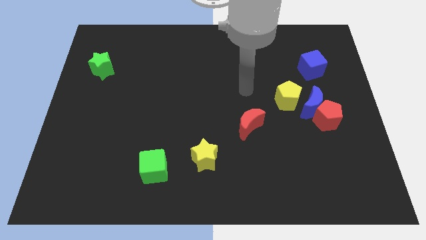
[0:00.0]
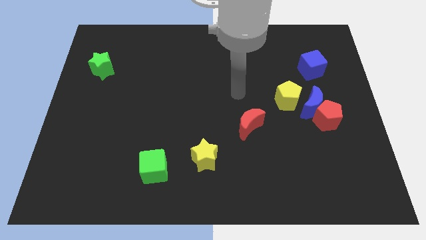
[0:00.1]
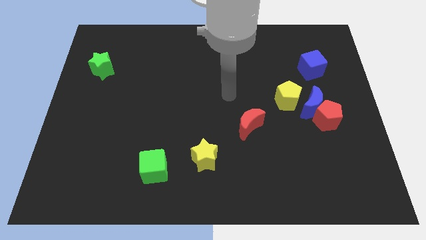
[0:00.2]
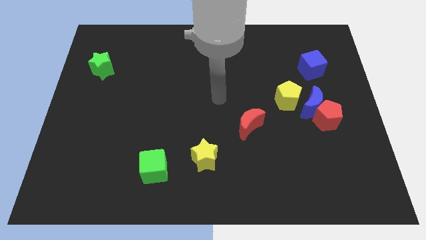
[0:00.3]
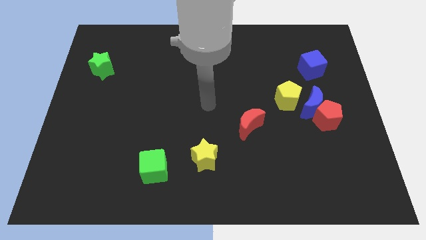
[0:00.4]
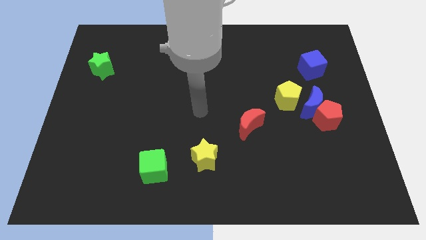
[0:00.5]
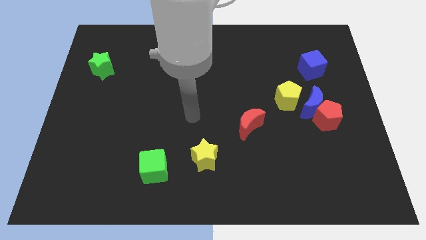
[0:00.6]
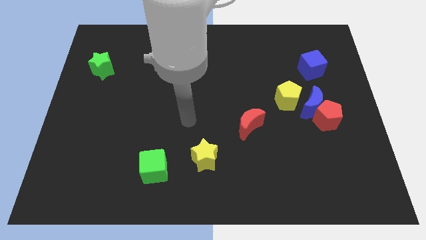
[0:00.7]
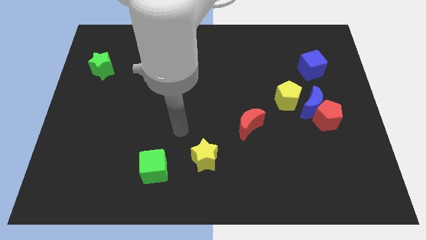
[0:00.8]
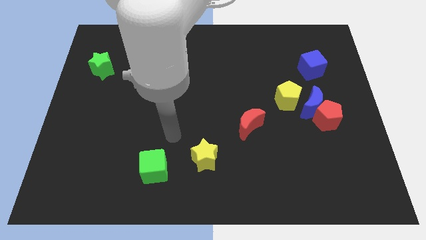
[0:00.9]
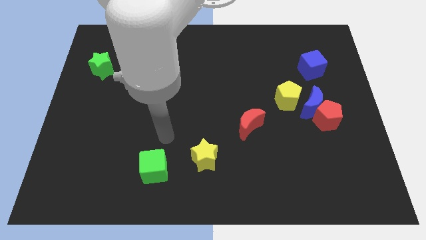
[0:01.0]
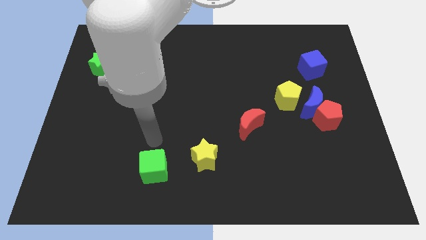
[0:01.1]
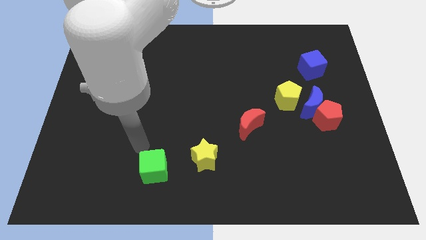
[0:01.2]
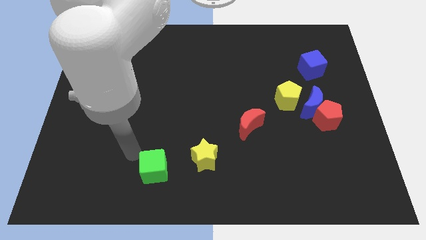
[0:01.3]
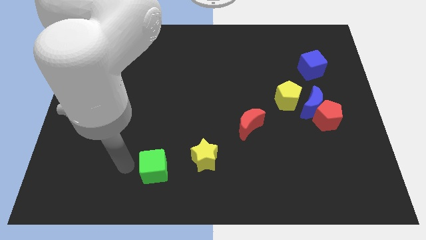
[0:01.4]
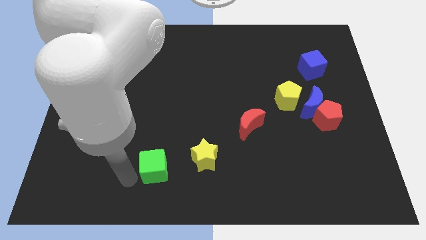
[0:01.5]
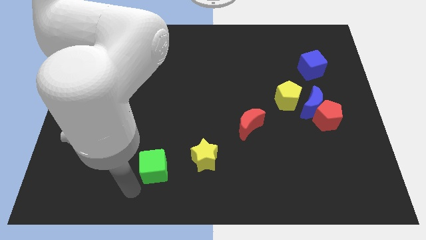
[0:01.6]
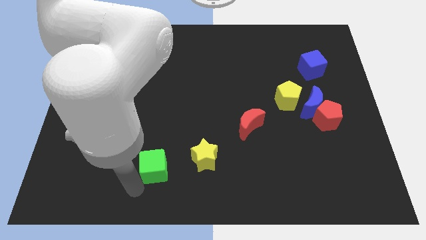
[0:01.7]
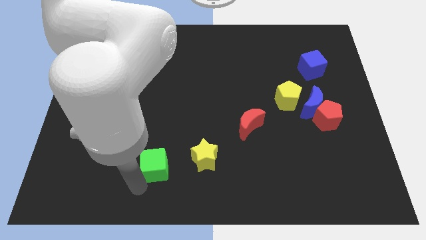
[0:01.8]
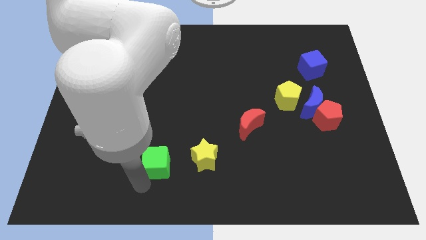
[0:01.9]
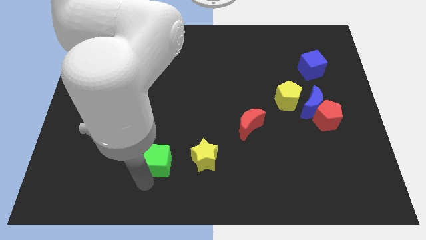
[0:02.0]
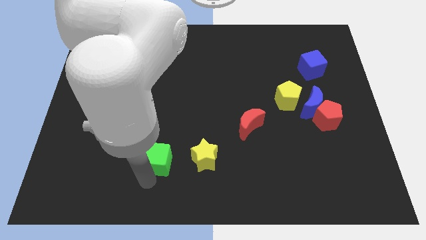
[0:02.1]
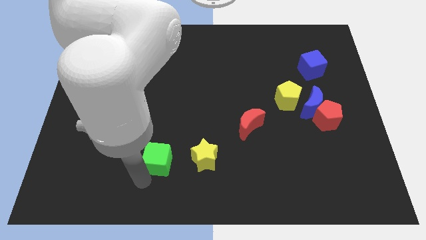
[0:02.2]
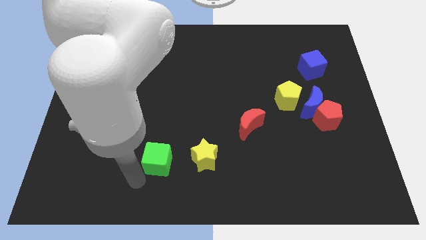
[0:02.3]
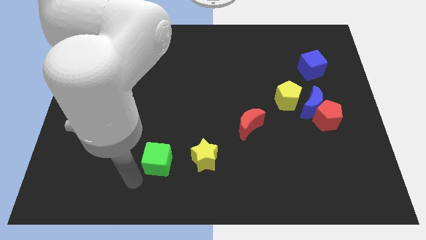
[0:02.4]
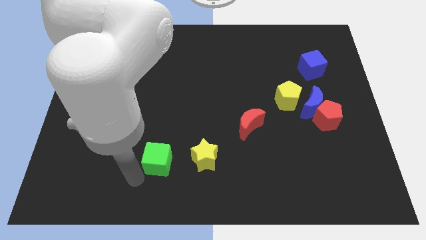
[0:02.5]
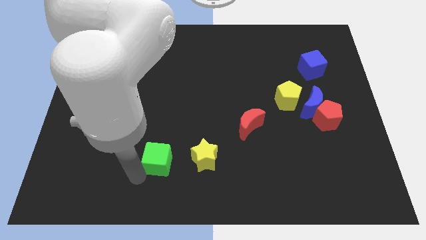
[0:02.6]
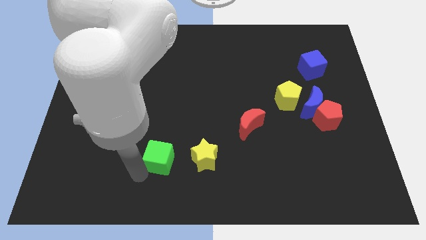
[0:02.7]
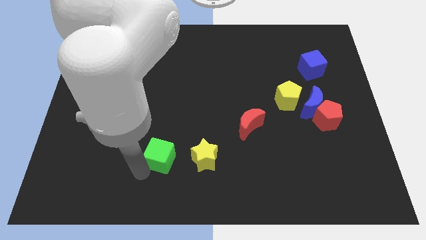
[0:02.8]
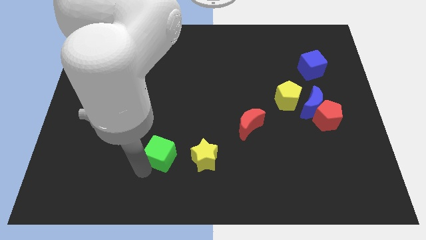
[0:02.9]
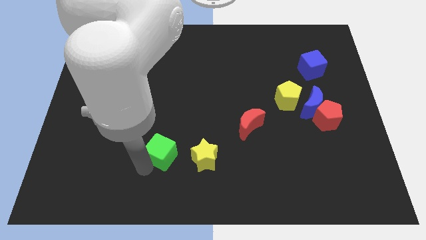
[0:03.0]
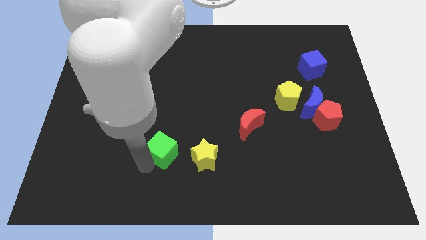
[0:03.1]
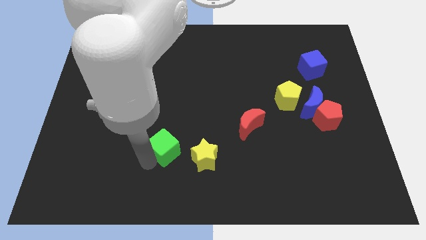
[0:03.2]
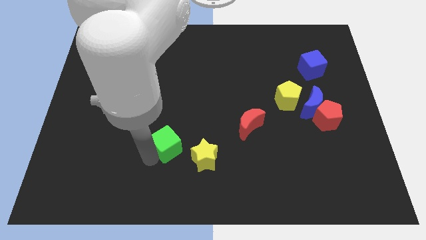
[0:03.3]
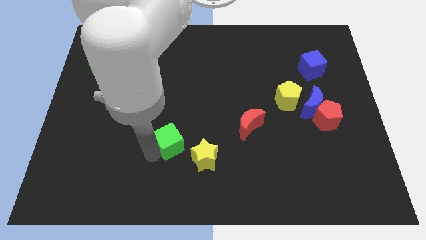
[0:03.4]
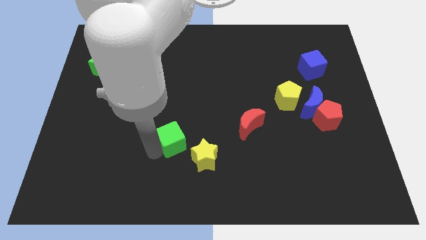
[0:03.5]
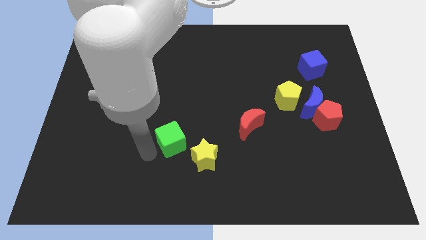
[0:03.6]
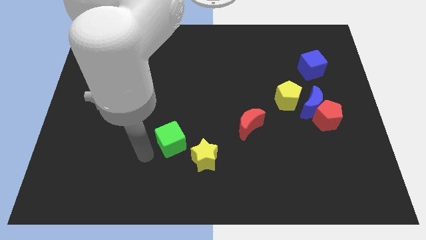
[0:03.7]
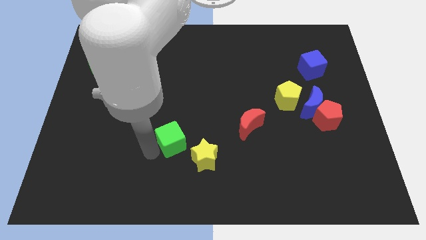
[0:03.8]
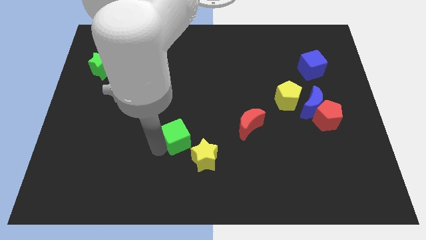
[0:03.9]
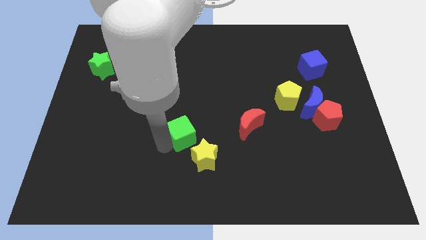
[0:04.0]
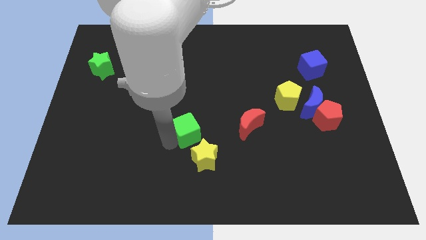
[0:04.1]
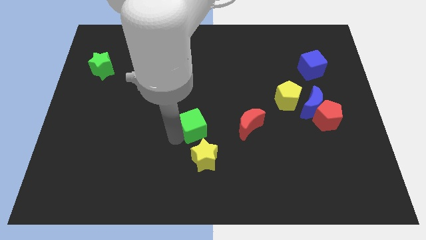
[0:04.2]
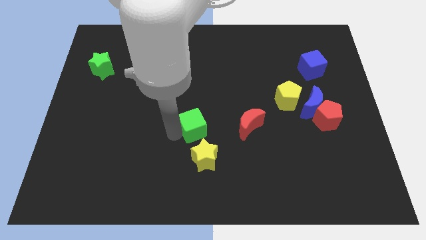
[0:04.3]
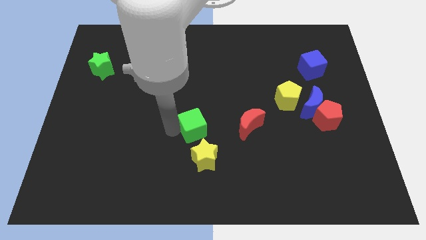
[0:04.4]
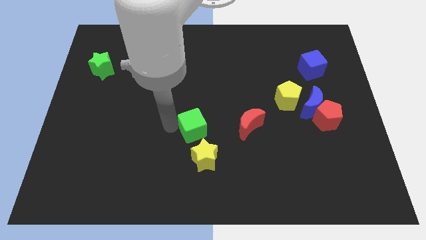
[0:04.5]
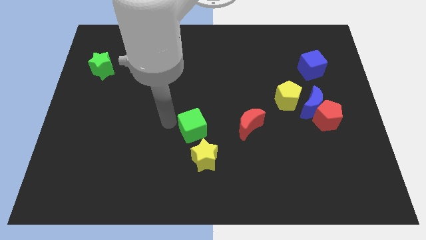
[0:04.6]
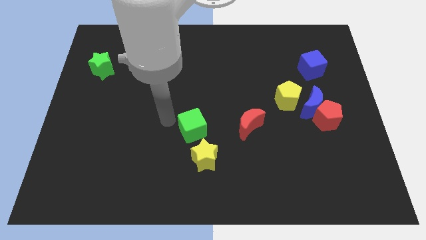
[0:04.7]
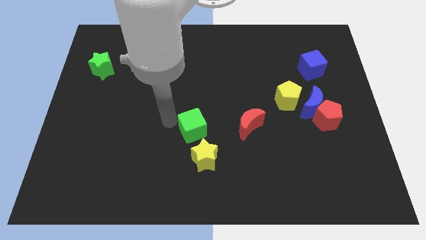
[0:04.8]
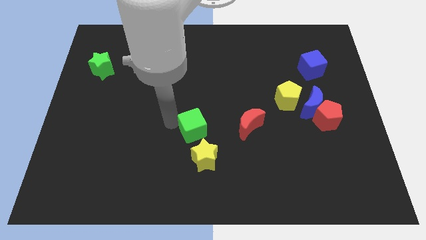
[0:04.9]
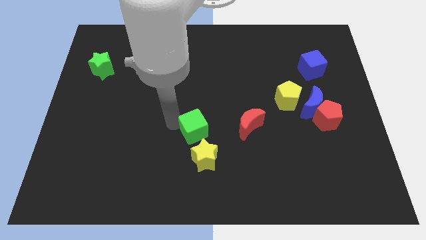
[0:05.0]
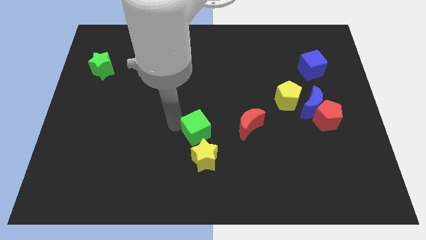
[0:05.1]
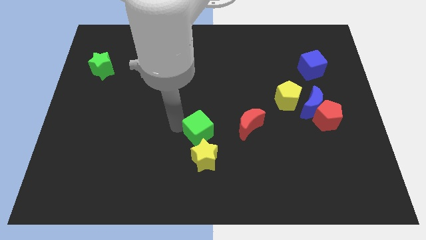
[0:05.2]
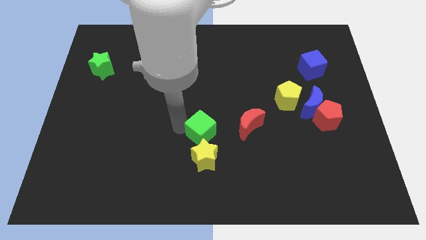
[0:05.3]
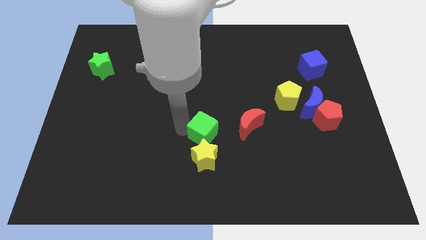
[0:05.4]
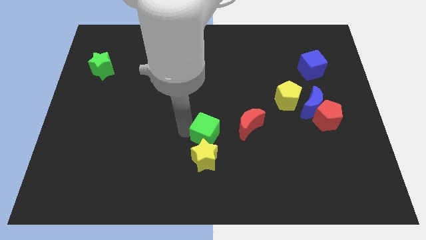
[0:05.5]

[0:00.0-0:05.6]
slide the green cube to the top right side of the yellow star

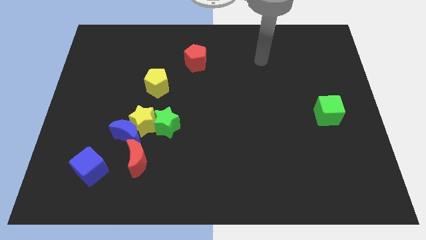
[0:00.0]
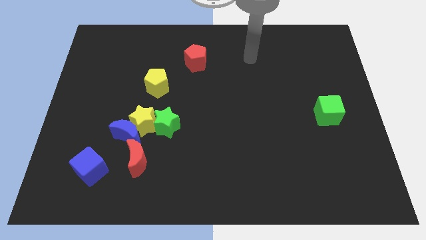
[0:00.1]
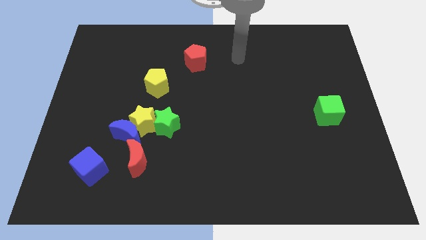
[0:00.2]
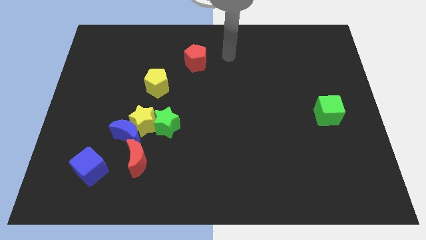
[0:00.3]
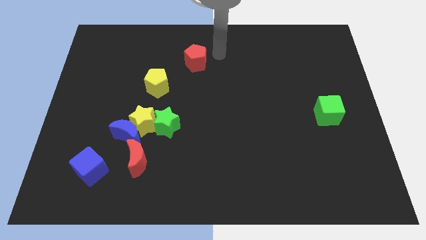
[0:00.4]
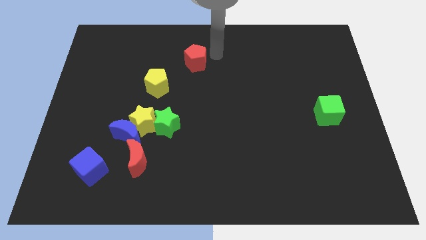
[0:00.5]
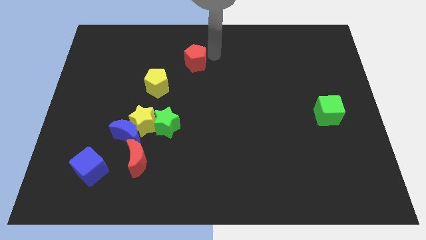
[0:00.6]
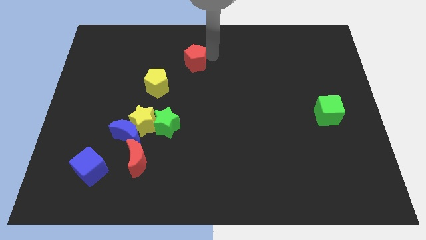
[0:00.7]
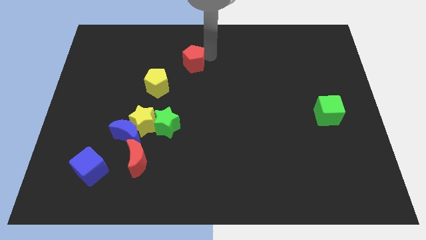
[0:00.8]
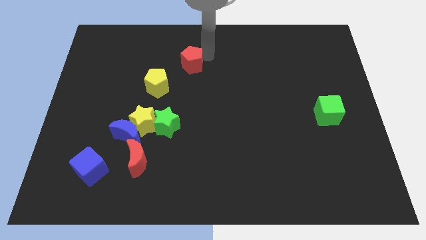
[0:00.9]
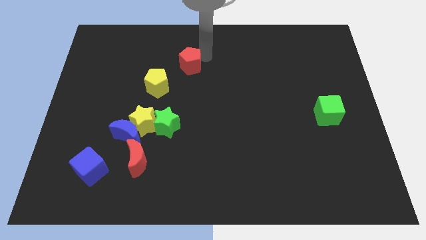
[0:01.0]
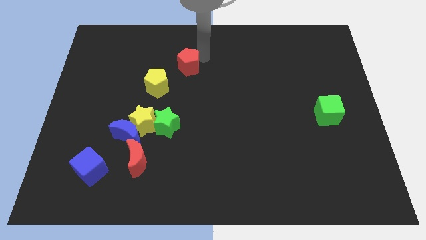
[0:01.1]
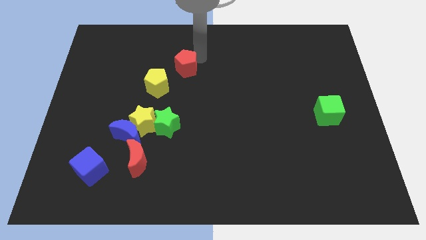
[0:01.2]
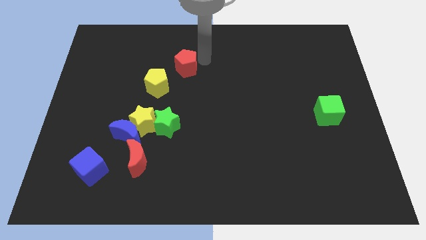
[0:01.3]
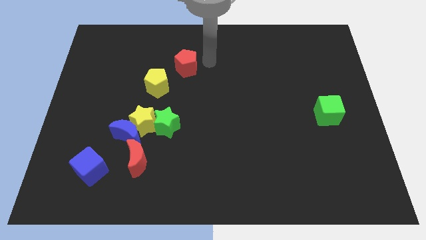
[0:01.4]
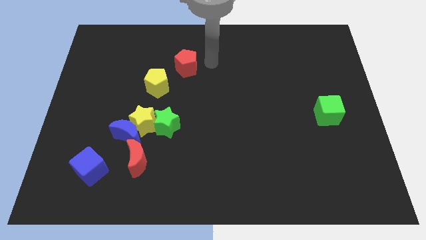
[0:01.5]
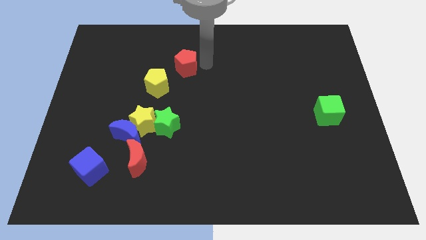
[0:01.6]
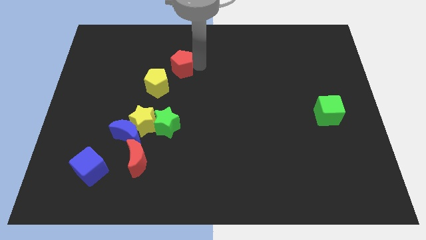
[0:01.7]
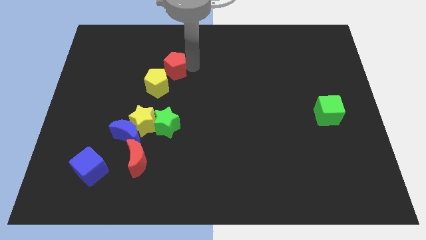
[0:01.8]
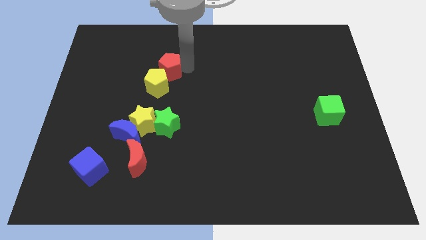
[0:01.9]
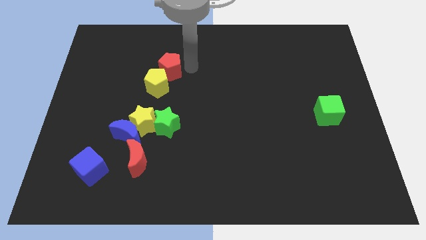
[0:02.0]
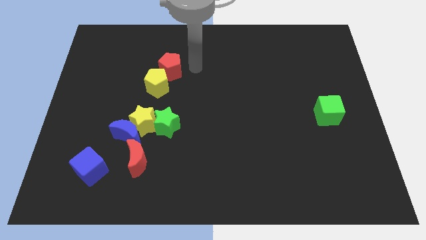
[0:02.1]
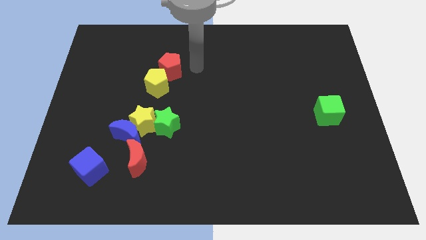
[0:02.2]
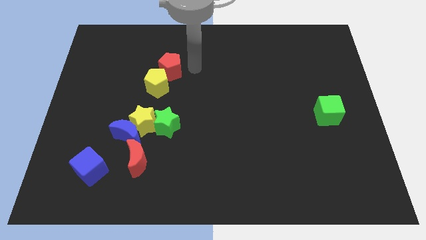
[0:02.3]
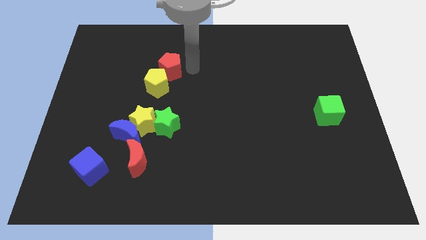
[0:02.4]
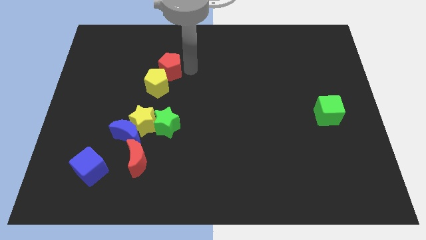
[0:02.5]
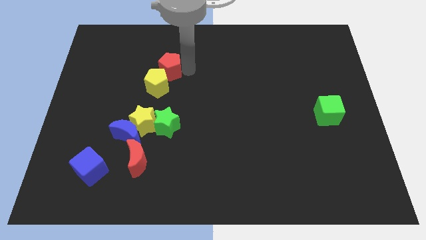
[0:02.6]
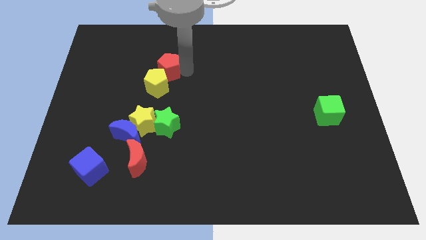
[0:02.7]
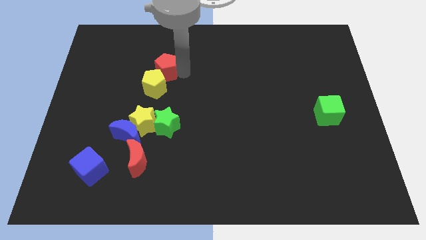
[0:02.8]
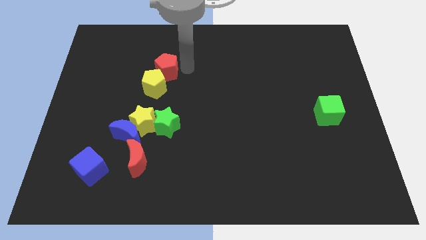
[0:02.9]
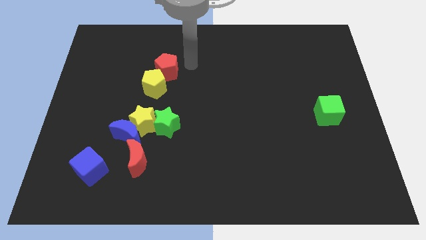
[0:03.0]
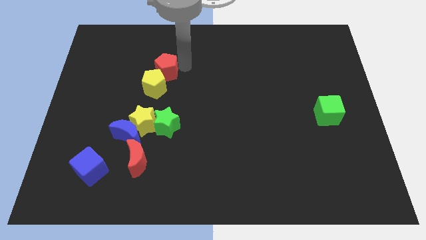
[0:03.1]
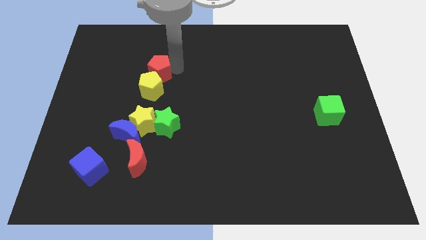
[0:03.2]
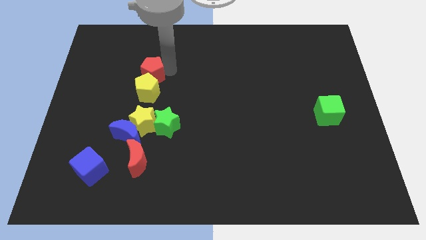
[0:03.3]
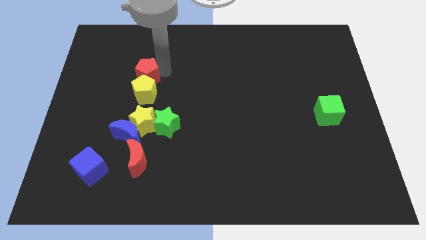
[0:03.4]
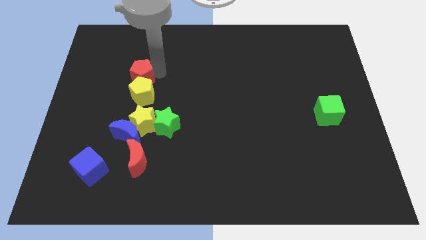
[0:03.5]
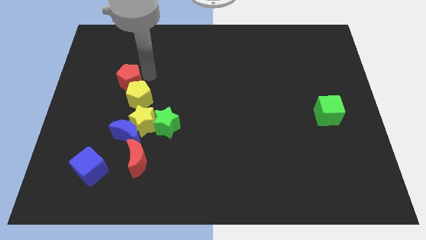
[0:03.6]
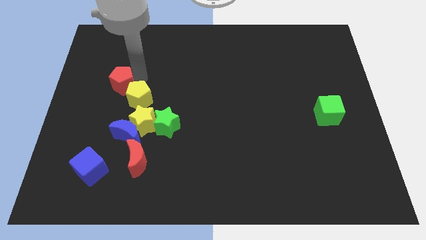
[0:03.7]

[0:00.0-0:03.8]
move the red pentagon left of the yellow pentagon
